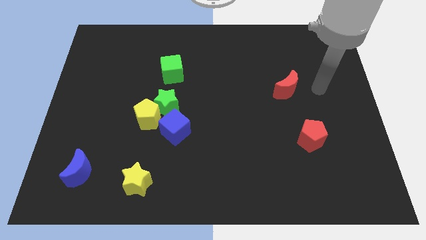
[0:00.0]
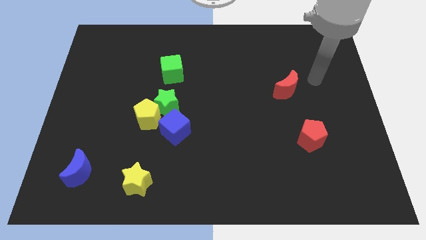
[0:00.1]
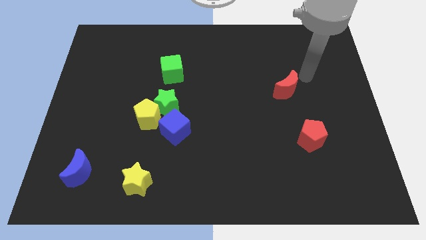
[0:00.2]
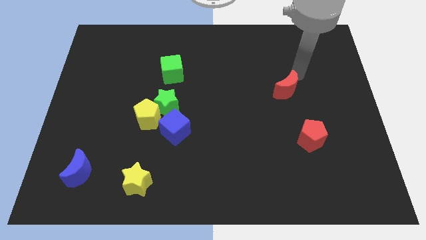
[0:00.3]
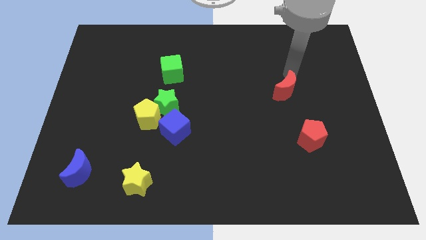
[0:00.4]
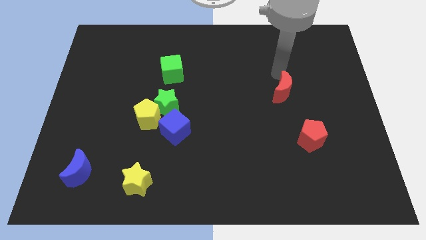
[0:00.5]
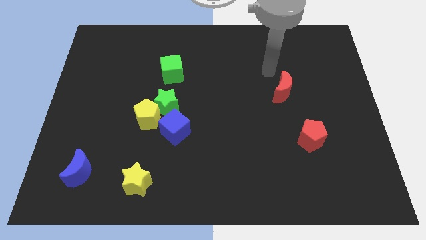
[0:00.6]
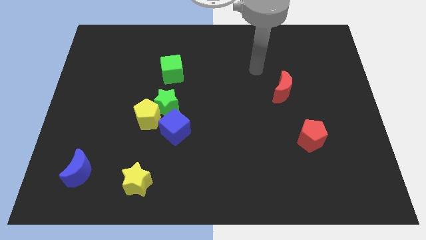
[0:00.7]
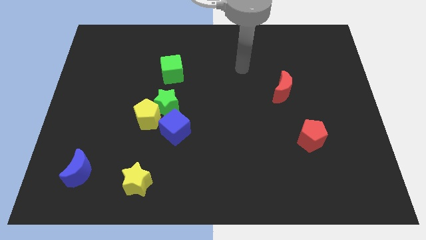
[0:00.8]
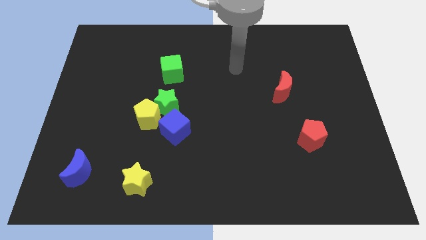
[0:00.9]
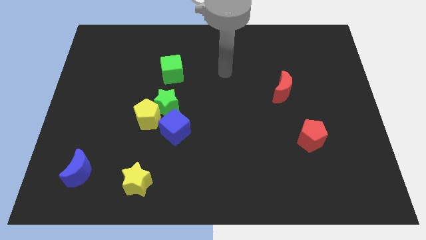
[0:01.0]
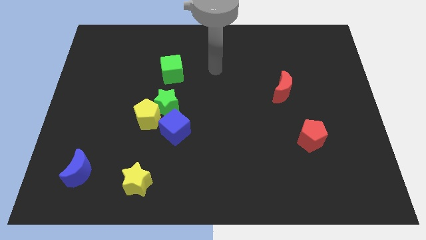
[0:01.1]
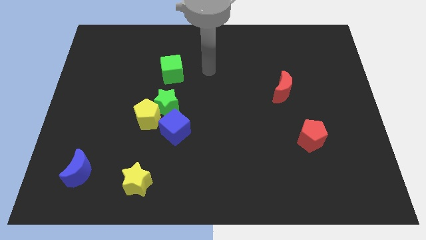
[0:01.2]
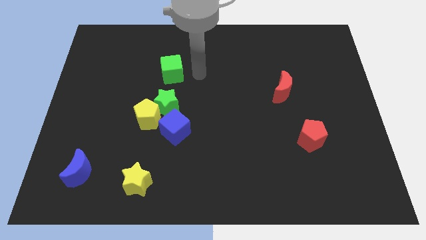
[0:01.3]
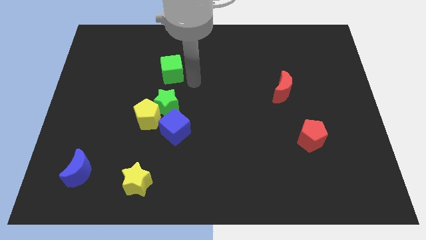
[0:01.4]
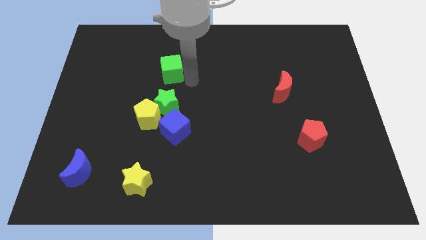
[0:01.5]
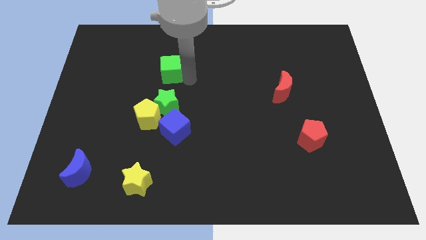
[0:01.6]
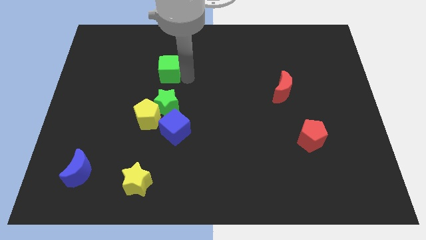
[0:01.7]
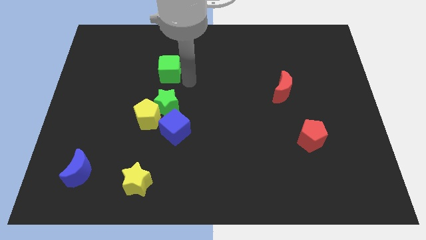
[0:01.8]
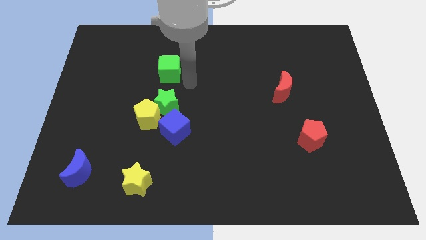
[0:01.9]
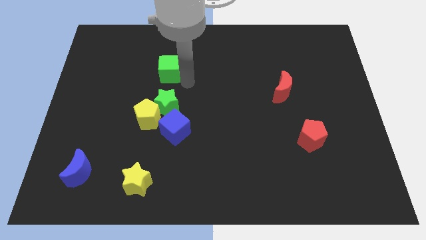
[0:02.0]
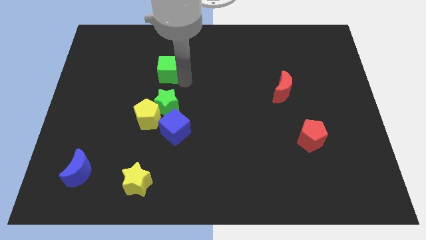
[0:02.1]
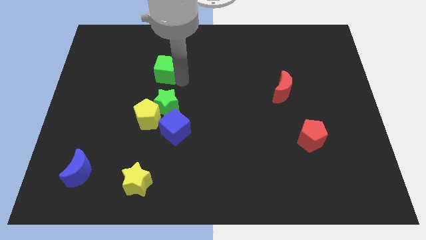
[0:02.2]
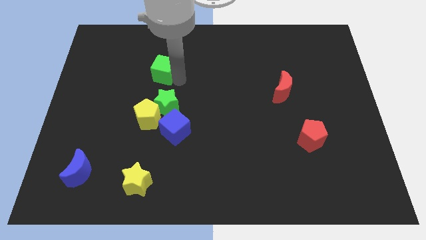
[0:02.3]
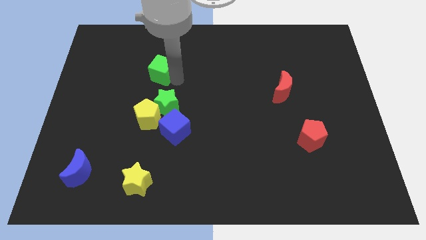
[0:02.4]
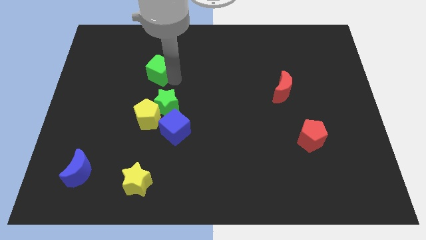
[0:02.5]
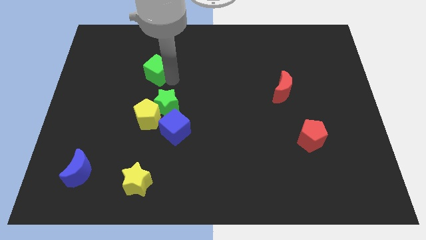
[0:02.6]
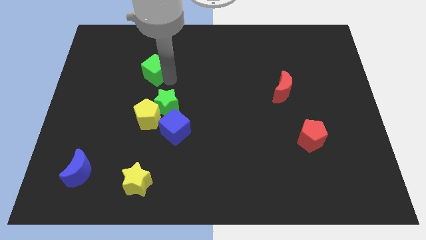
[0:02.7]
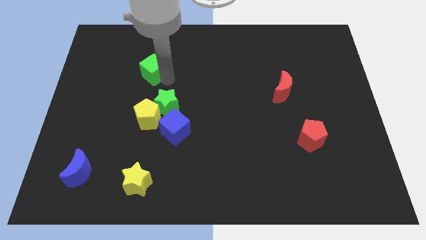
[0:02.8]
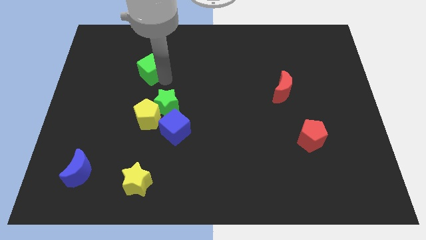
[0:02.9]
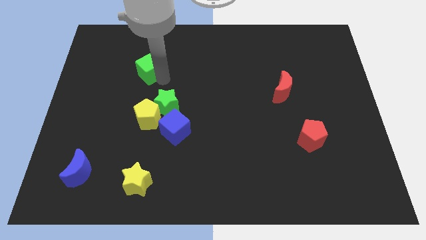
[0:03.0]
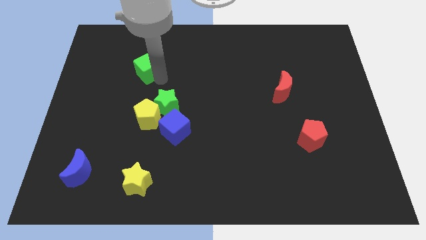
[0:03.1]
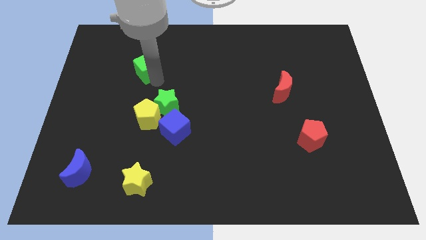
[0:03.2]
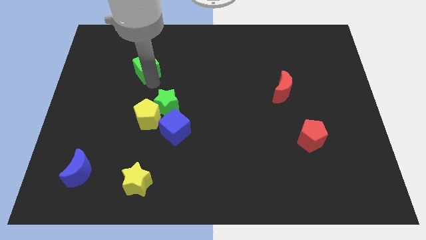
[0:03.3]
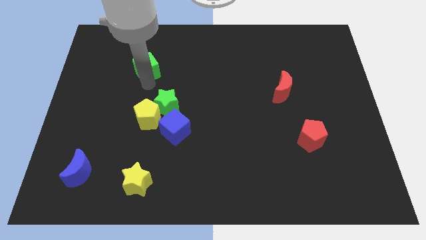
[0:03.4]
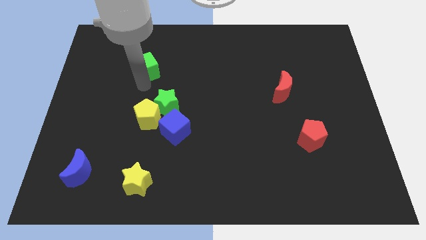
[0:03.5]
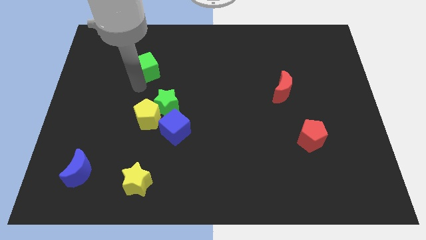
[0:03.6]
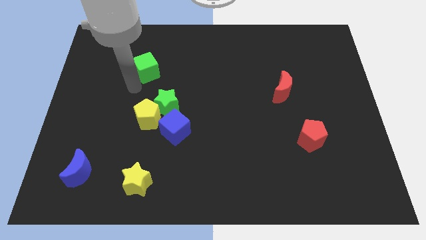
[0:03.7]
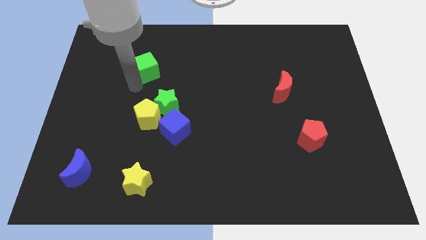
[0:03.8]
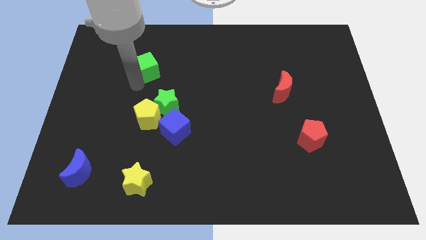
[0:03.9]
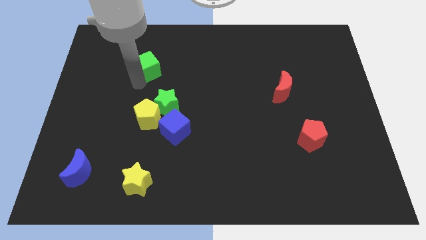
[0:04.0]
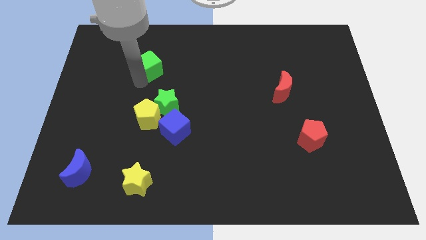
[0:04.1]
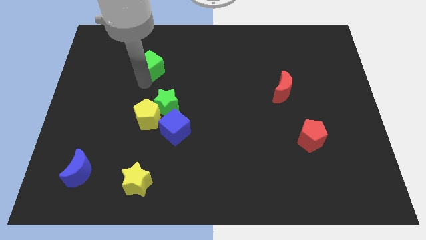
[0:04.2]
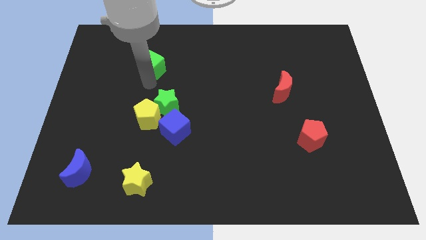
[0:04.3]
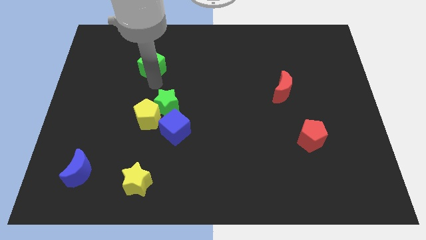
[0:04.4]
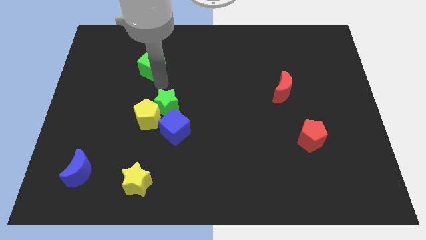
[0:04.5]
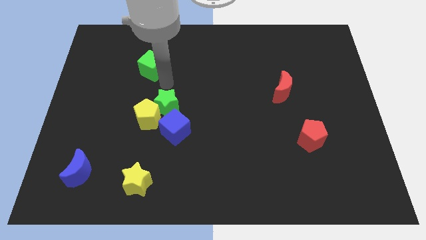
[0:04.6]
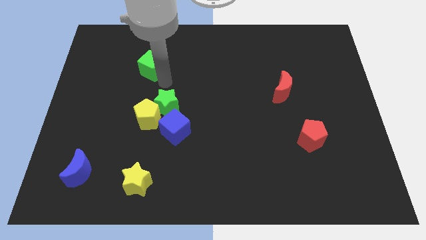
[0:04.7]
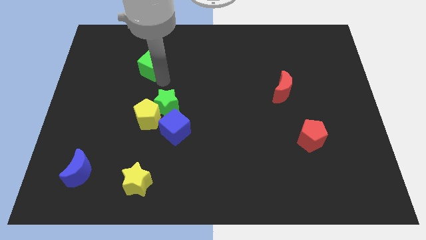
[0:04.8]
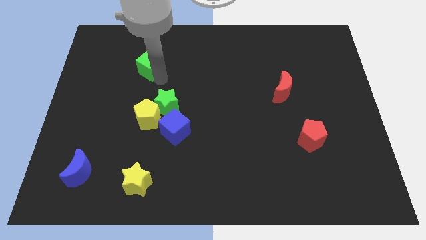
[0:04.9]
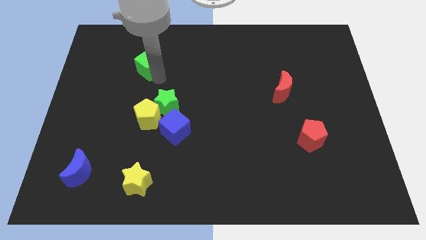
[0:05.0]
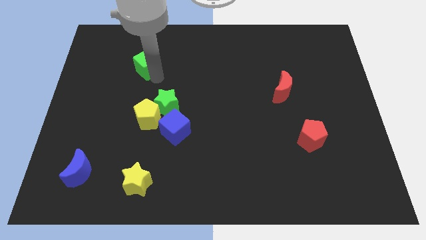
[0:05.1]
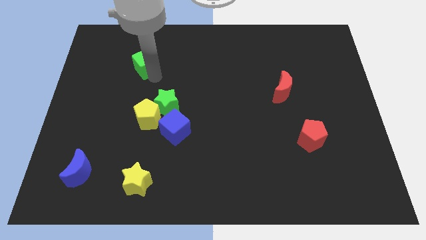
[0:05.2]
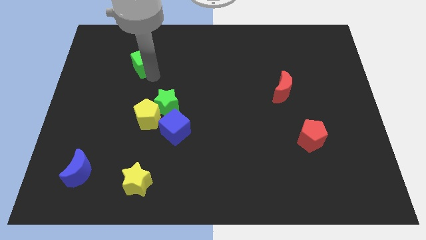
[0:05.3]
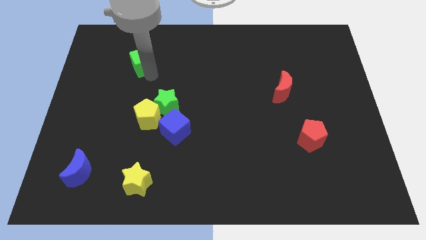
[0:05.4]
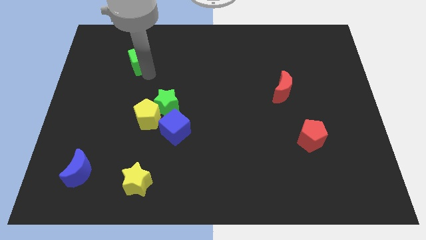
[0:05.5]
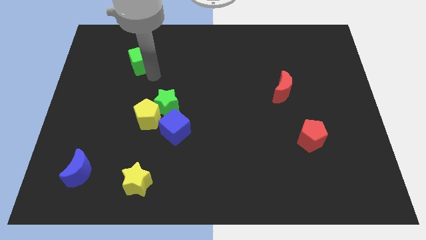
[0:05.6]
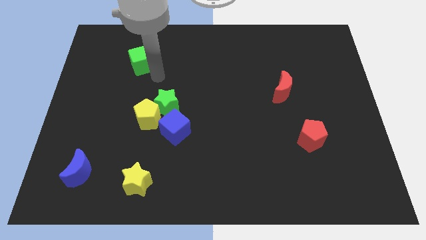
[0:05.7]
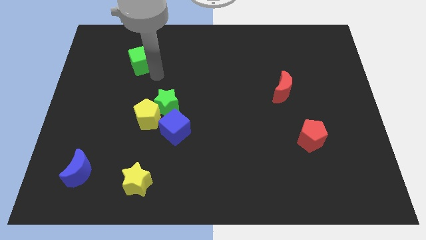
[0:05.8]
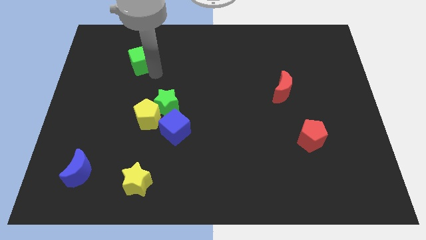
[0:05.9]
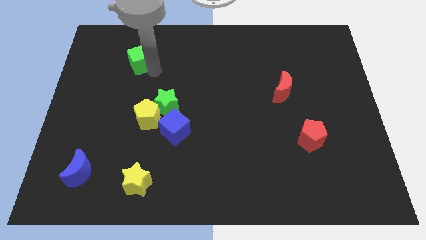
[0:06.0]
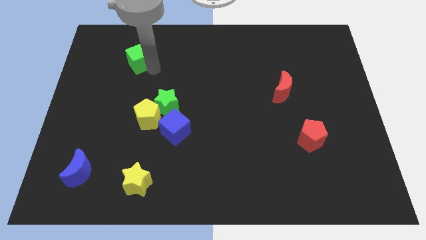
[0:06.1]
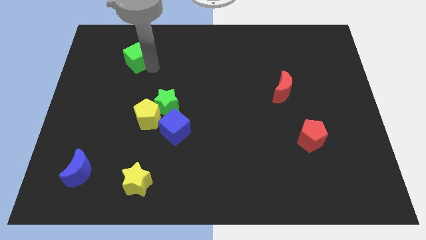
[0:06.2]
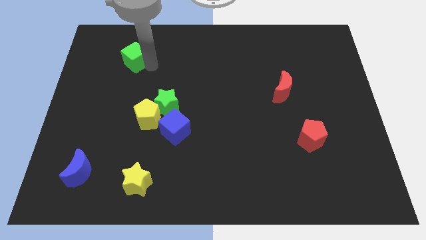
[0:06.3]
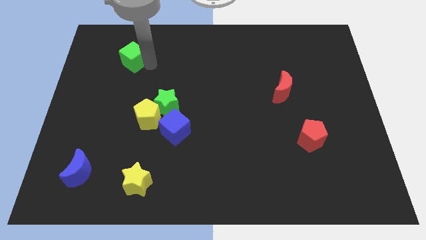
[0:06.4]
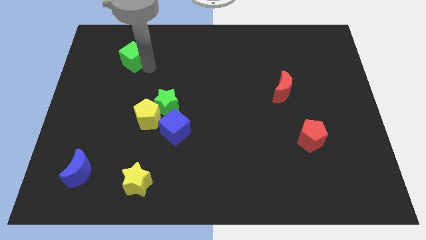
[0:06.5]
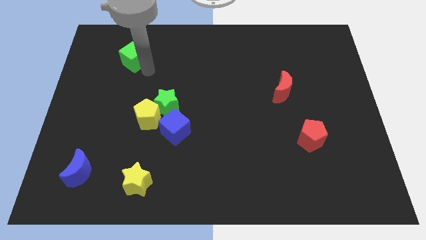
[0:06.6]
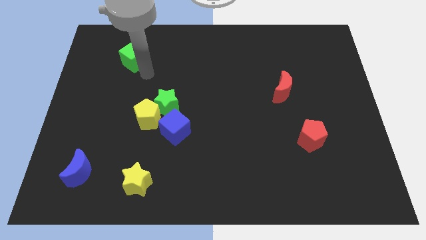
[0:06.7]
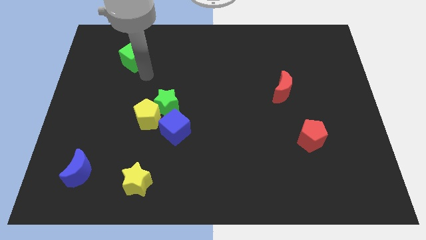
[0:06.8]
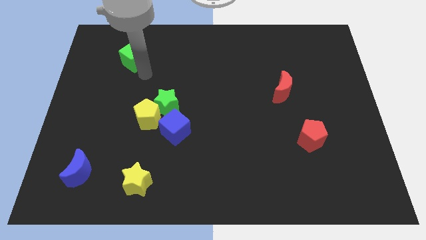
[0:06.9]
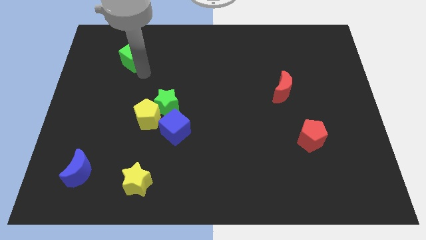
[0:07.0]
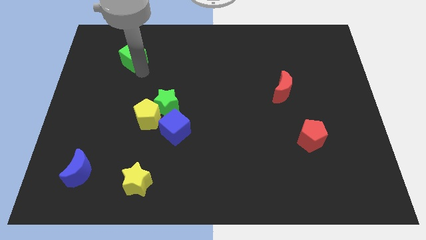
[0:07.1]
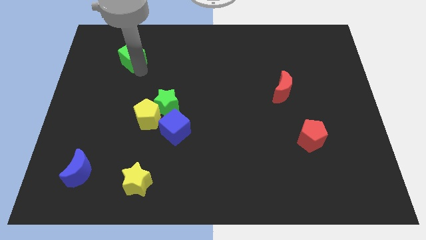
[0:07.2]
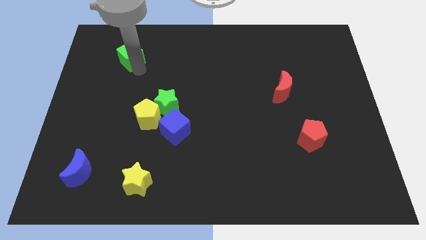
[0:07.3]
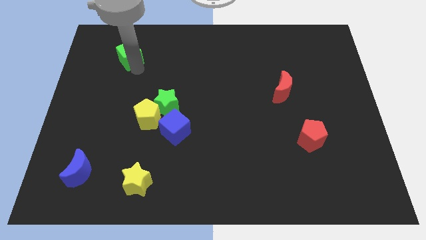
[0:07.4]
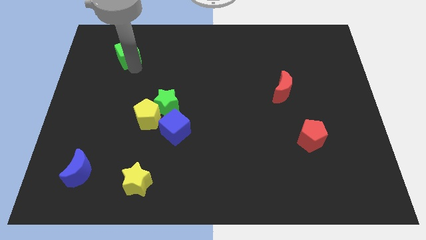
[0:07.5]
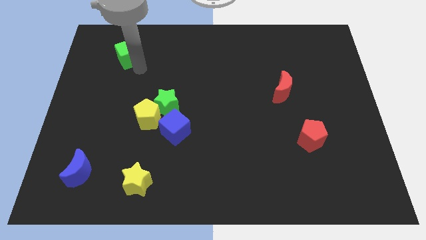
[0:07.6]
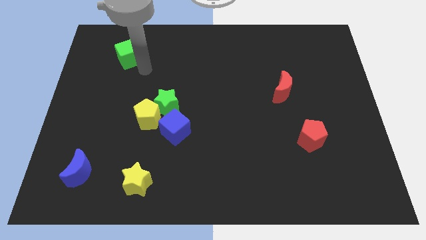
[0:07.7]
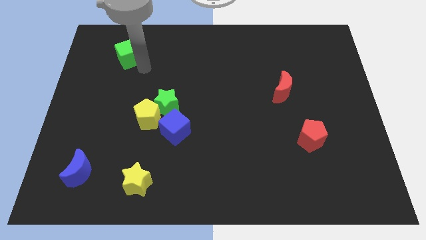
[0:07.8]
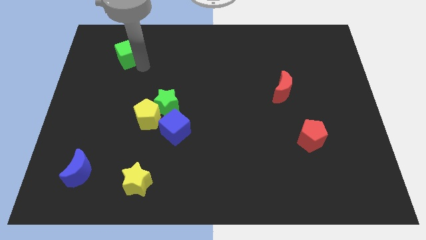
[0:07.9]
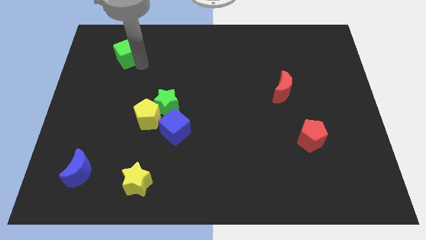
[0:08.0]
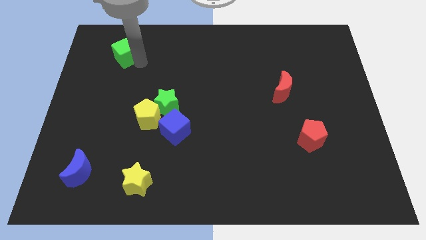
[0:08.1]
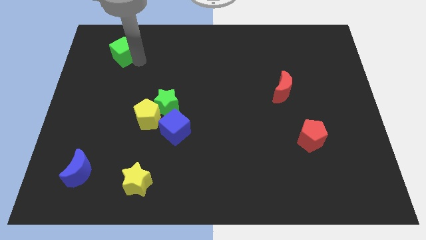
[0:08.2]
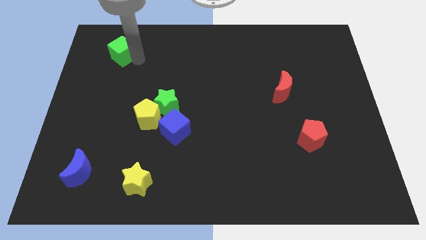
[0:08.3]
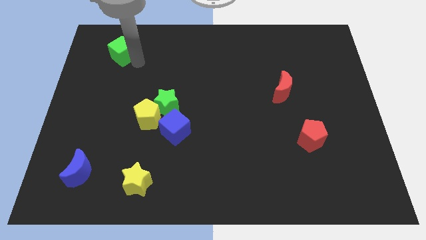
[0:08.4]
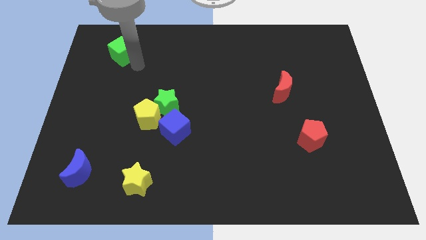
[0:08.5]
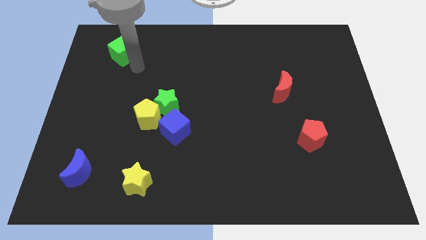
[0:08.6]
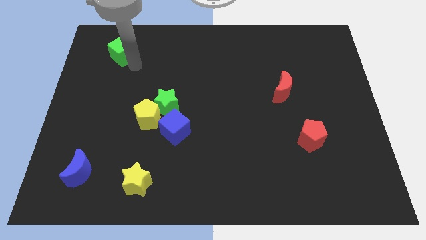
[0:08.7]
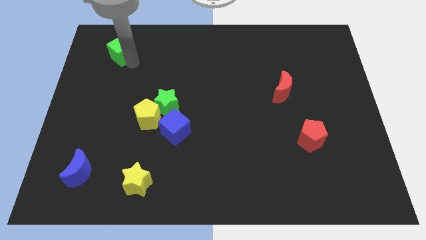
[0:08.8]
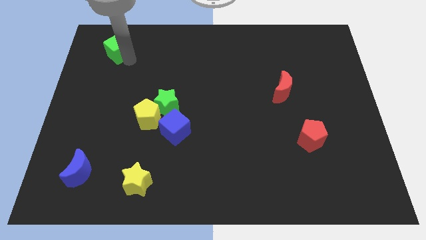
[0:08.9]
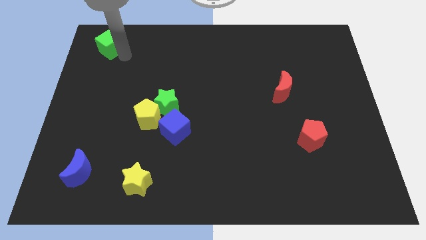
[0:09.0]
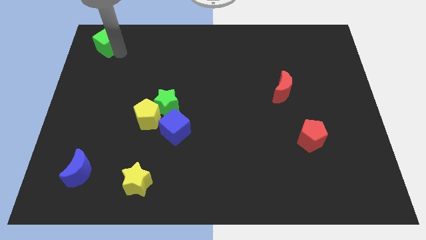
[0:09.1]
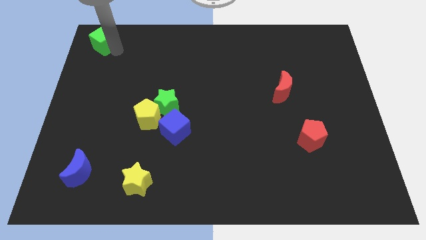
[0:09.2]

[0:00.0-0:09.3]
push the green cube to the top left corner
